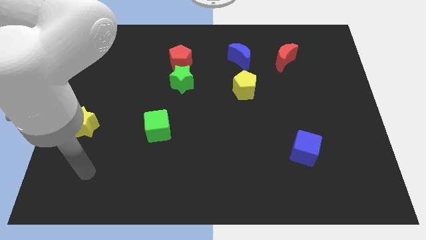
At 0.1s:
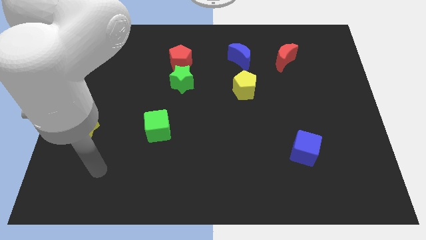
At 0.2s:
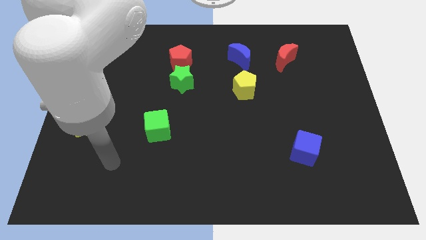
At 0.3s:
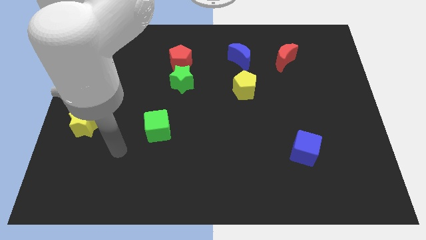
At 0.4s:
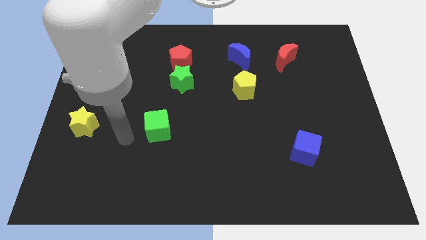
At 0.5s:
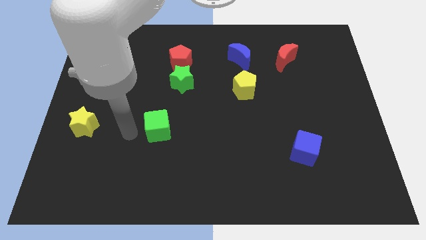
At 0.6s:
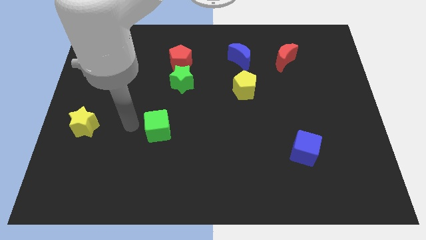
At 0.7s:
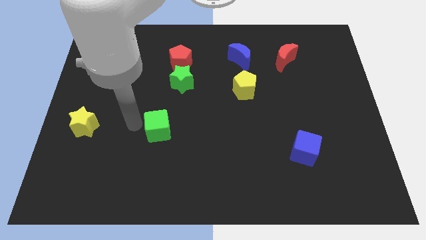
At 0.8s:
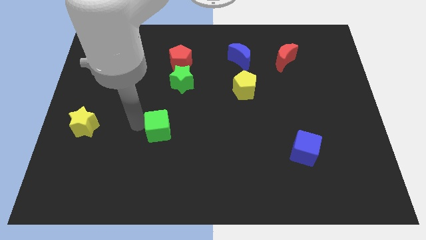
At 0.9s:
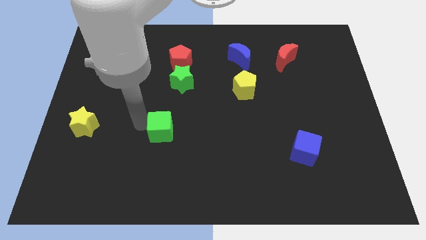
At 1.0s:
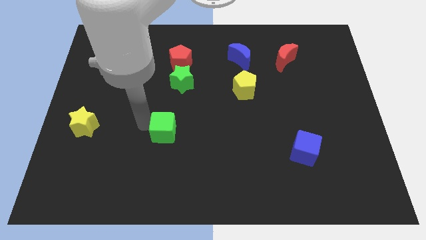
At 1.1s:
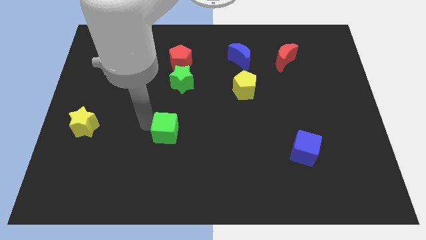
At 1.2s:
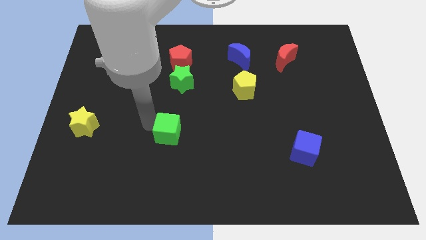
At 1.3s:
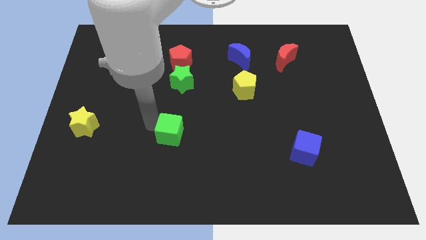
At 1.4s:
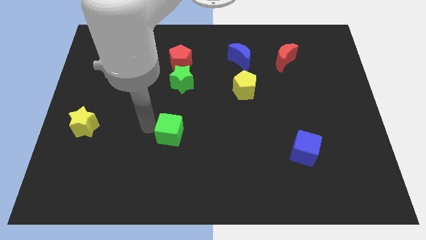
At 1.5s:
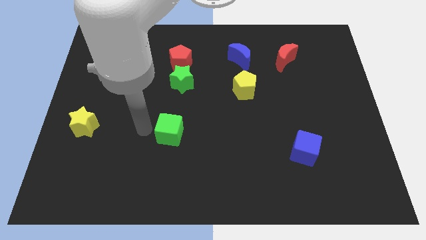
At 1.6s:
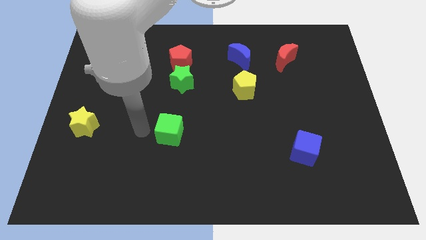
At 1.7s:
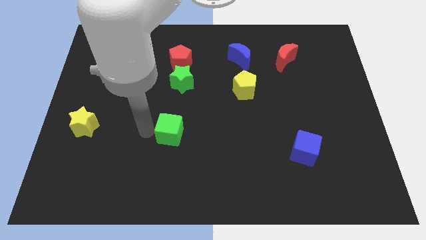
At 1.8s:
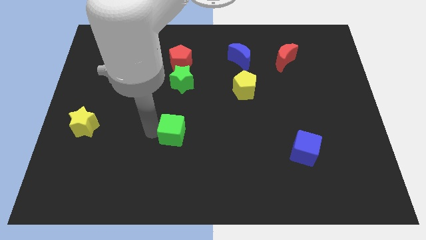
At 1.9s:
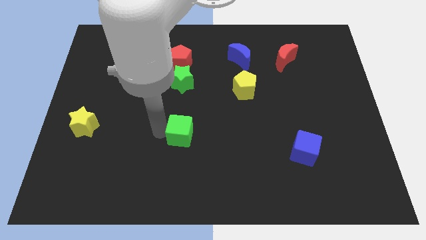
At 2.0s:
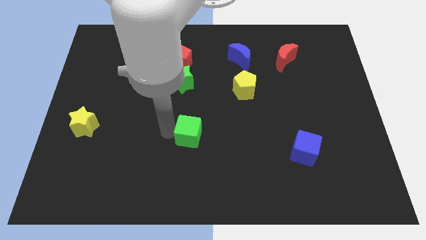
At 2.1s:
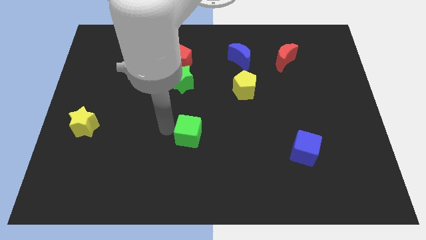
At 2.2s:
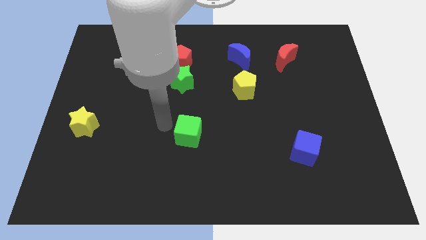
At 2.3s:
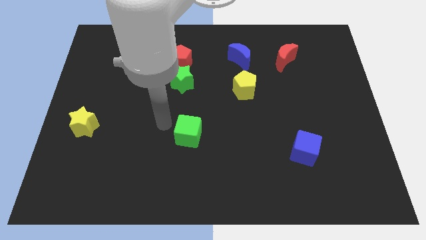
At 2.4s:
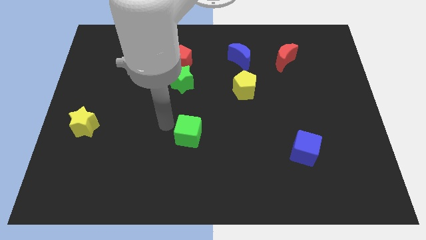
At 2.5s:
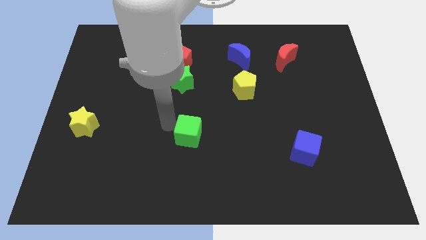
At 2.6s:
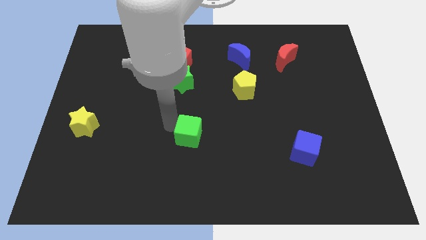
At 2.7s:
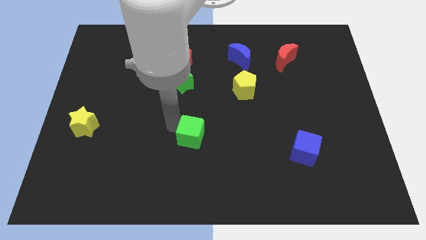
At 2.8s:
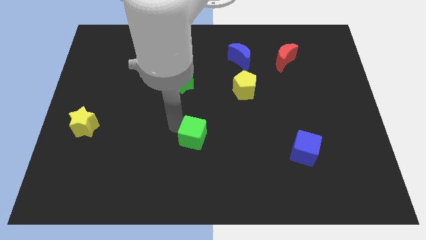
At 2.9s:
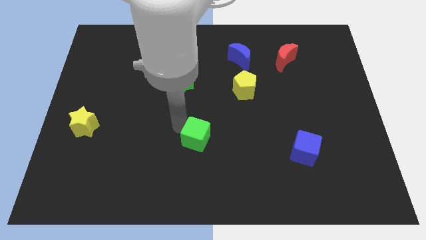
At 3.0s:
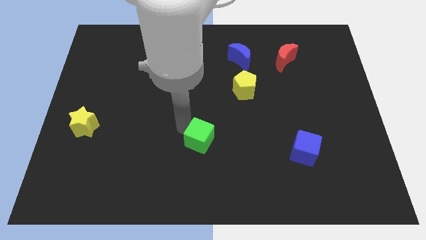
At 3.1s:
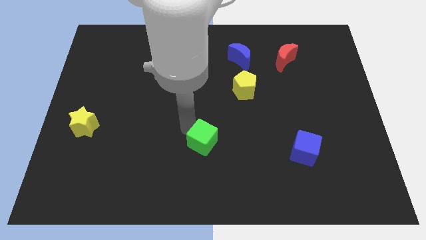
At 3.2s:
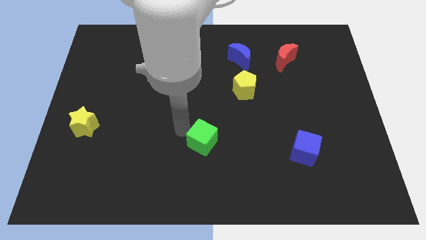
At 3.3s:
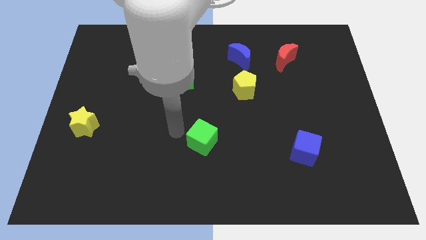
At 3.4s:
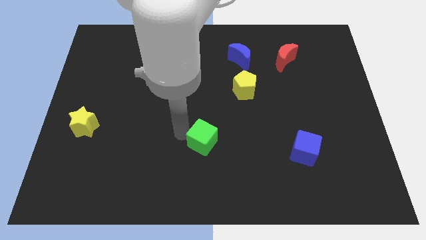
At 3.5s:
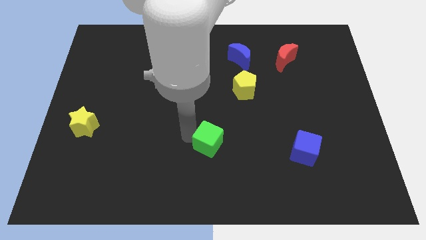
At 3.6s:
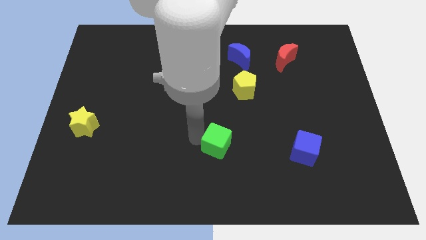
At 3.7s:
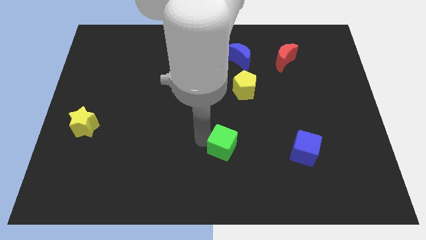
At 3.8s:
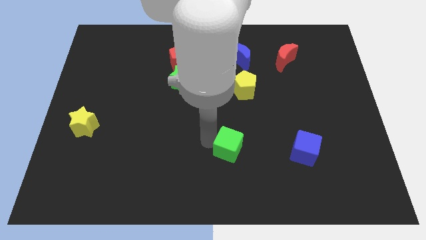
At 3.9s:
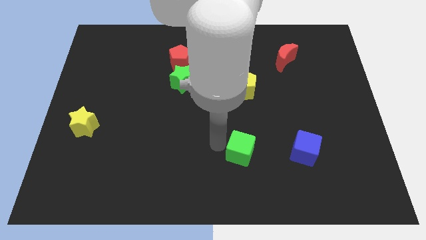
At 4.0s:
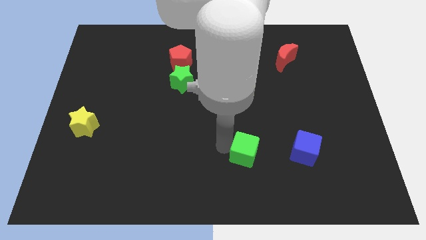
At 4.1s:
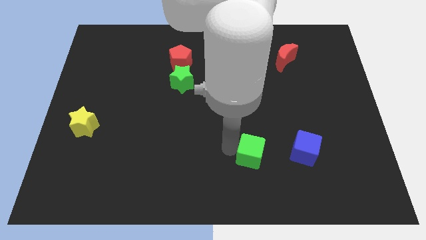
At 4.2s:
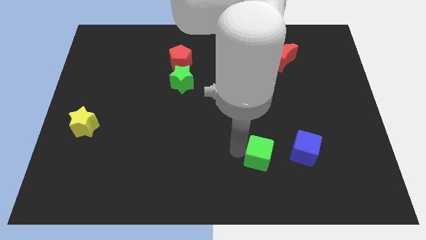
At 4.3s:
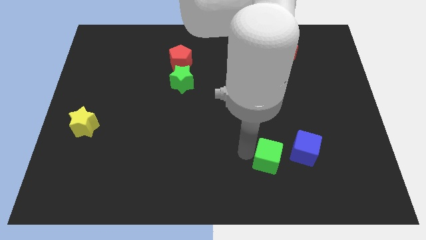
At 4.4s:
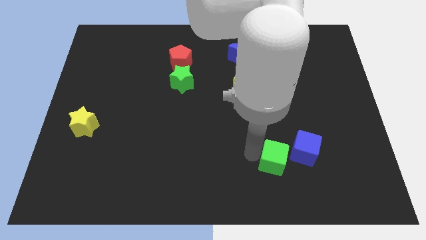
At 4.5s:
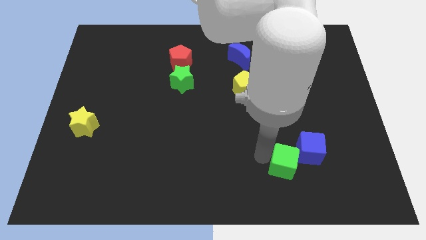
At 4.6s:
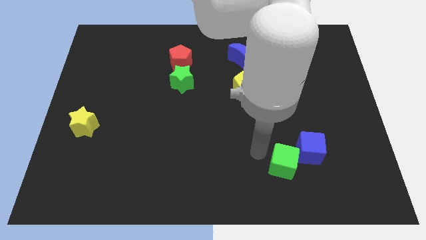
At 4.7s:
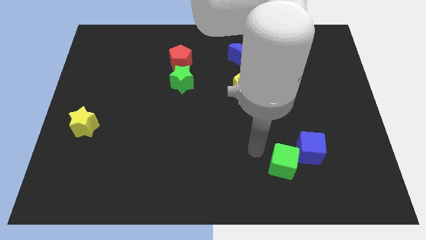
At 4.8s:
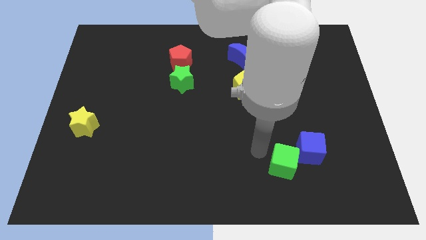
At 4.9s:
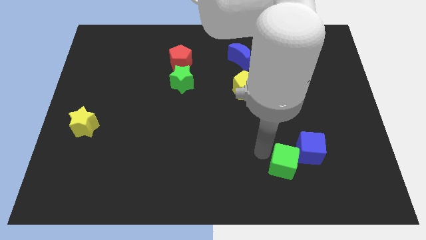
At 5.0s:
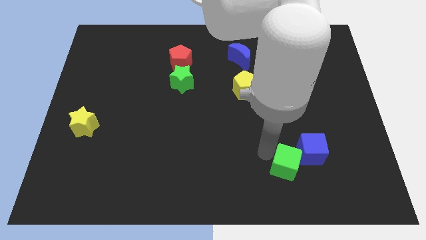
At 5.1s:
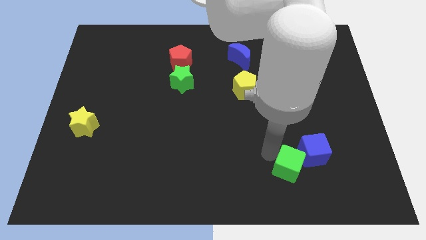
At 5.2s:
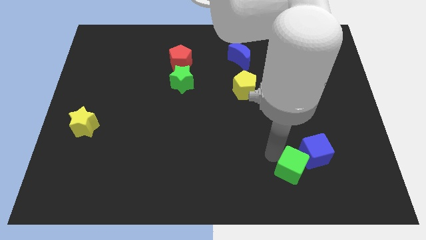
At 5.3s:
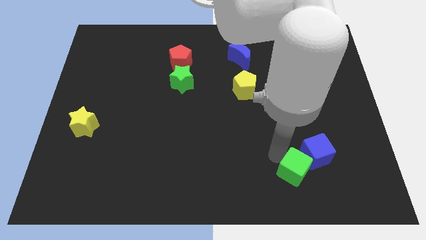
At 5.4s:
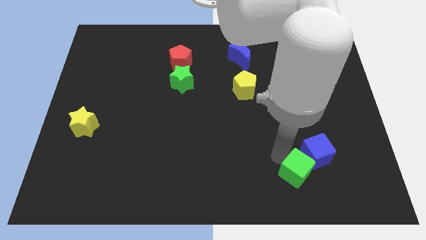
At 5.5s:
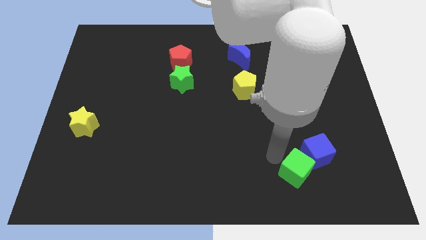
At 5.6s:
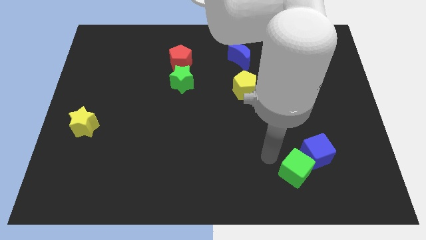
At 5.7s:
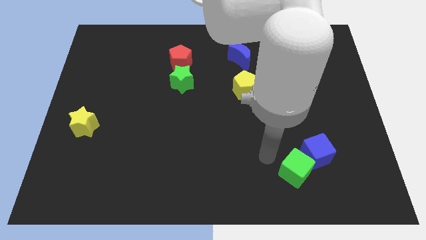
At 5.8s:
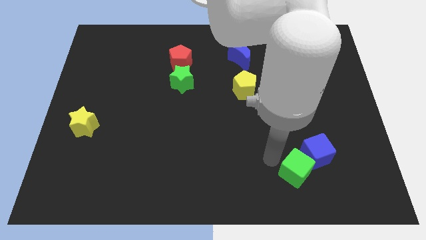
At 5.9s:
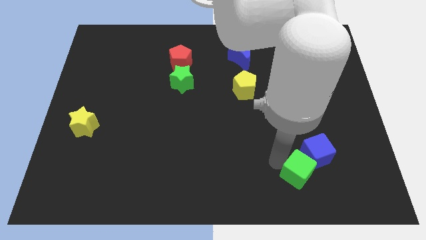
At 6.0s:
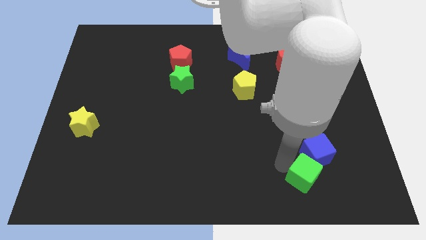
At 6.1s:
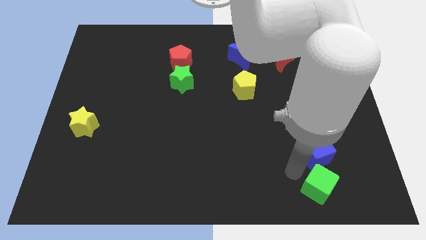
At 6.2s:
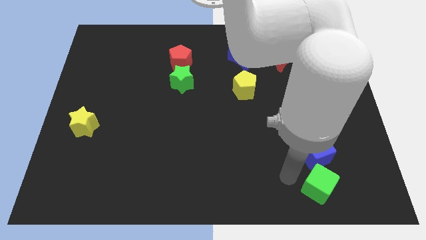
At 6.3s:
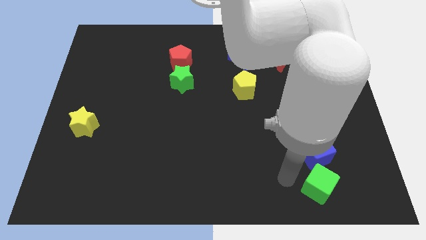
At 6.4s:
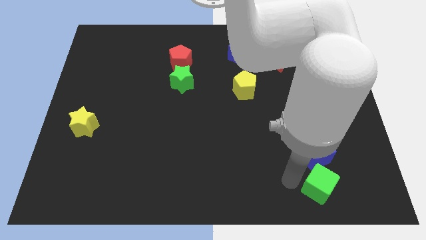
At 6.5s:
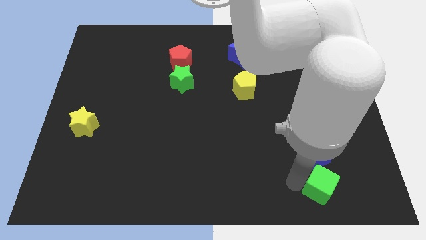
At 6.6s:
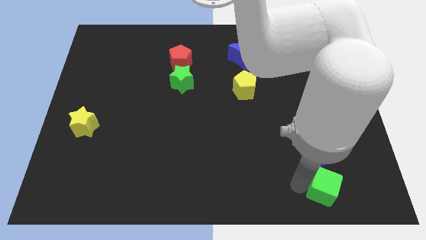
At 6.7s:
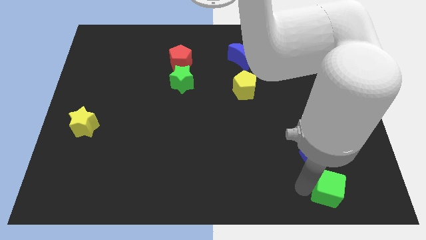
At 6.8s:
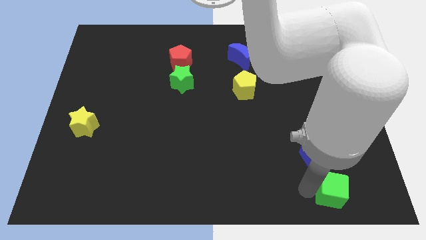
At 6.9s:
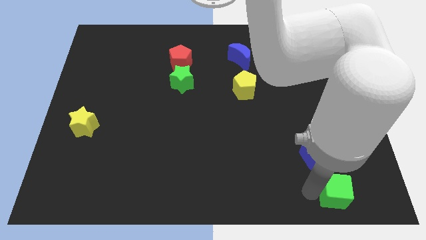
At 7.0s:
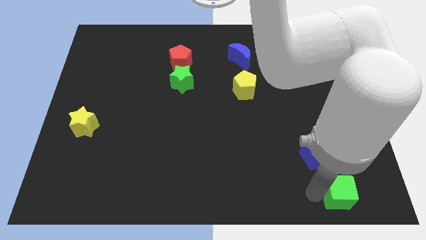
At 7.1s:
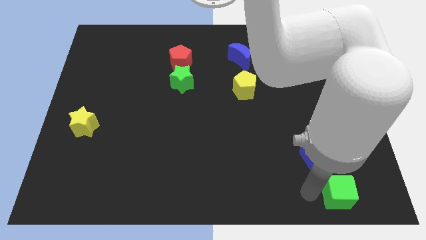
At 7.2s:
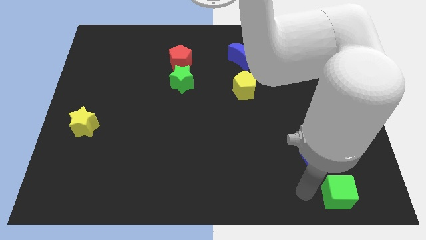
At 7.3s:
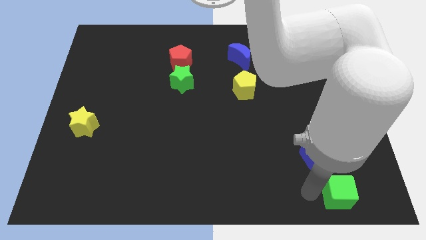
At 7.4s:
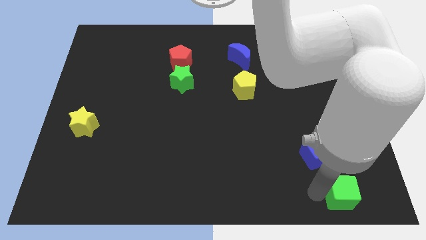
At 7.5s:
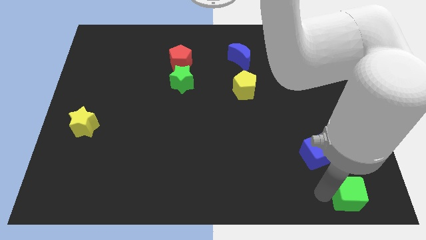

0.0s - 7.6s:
move the green cube to the bottom right
